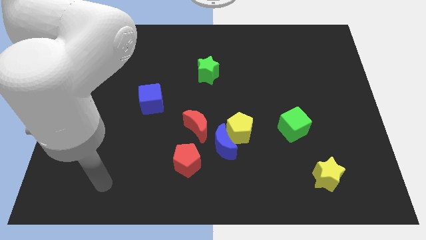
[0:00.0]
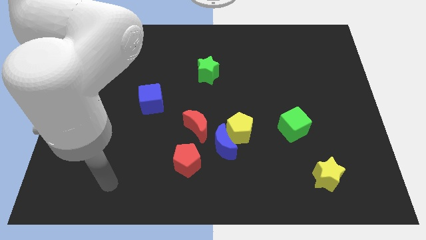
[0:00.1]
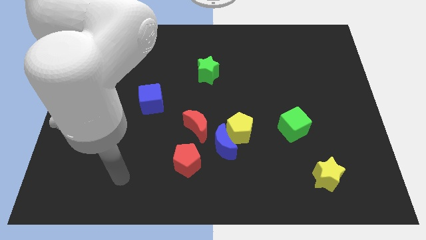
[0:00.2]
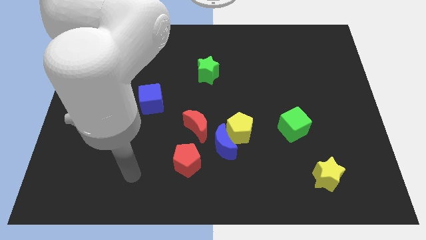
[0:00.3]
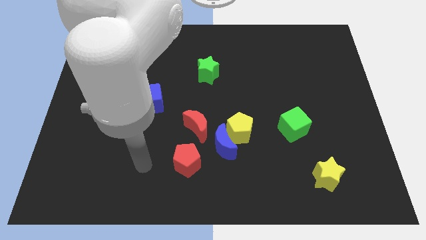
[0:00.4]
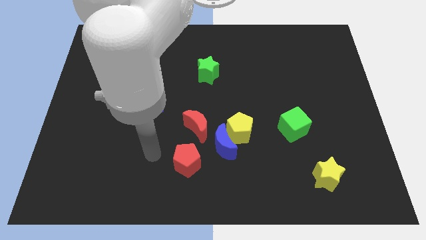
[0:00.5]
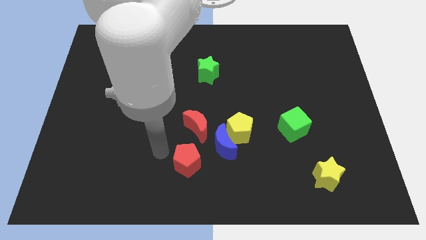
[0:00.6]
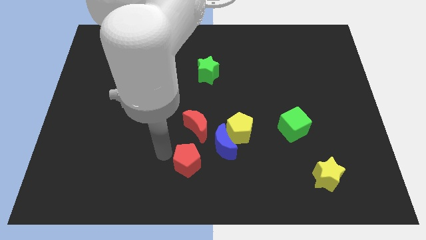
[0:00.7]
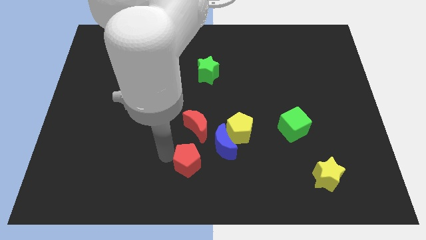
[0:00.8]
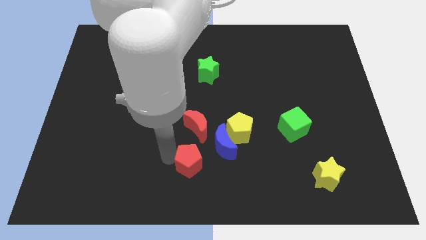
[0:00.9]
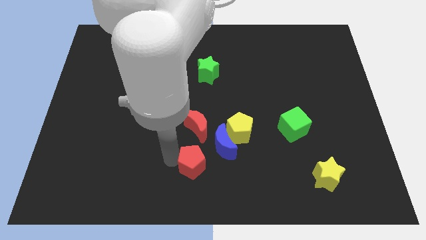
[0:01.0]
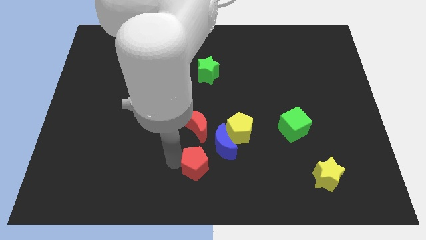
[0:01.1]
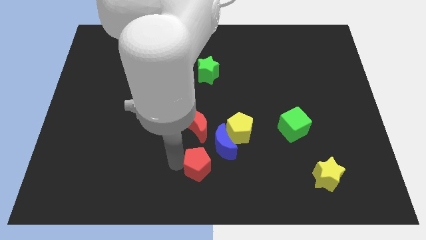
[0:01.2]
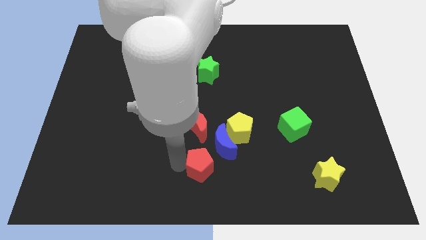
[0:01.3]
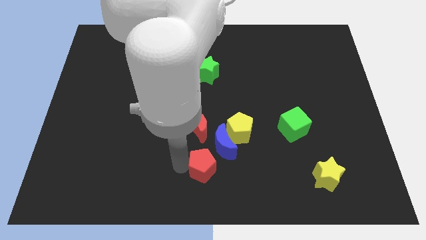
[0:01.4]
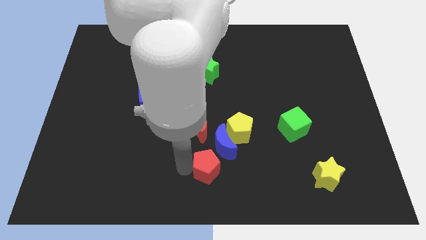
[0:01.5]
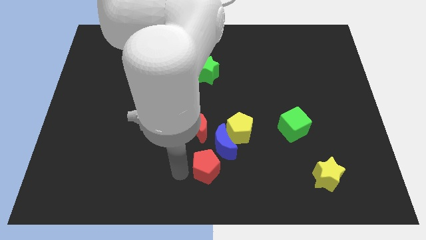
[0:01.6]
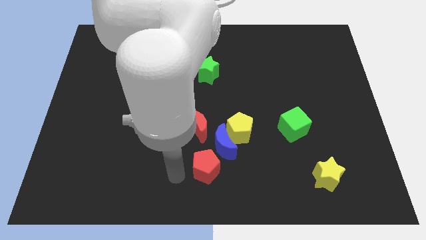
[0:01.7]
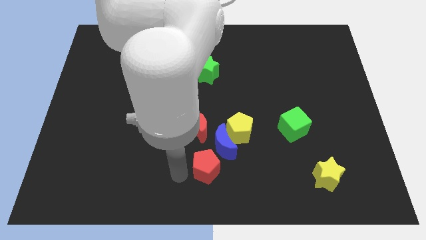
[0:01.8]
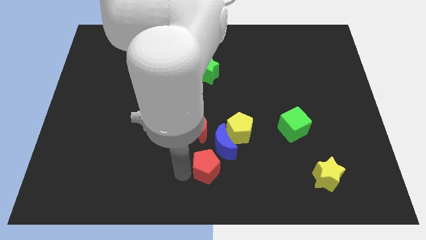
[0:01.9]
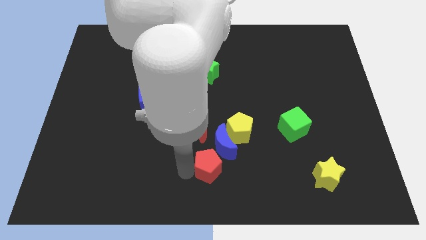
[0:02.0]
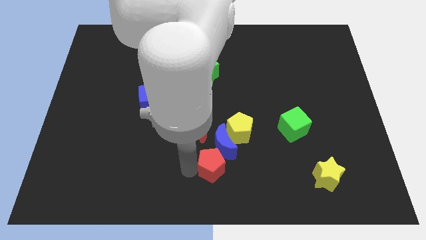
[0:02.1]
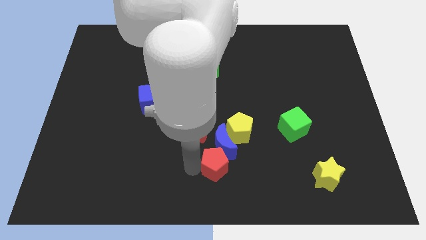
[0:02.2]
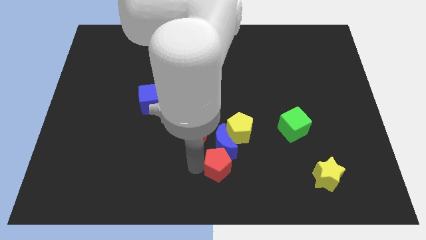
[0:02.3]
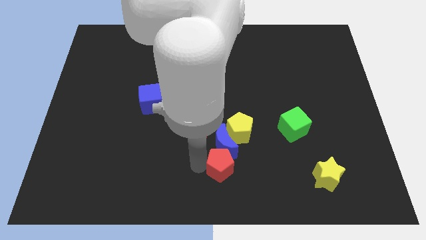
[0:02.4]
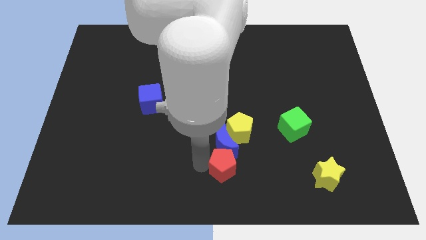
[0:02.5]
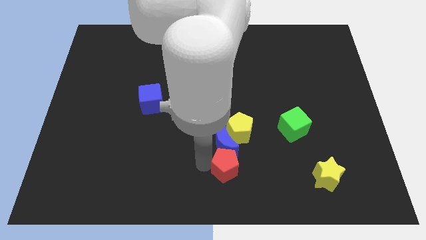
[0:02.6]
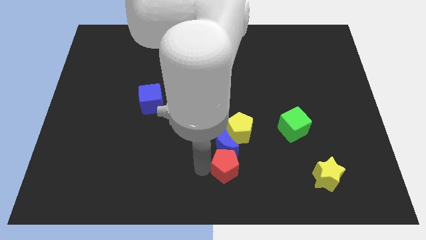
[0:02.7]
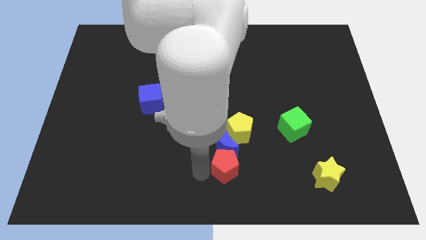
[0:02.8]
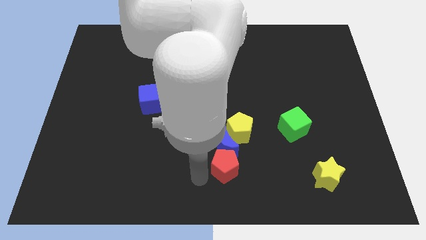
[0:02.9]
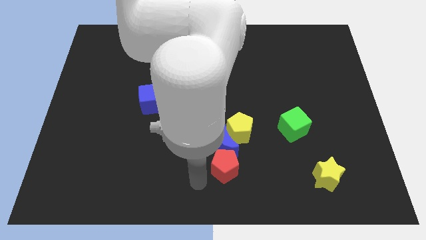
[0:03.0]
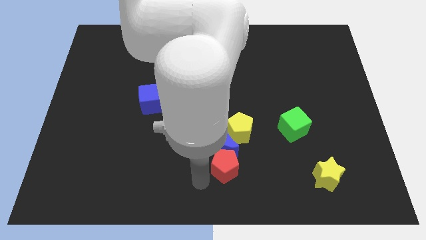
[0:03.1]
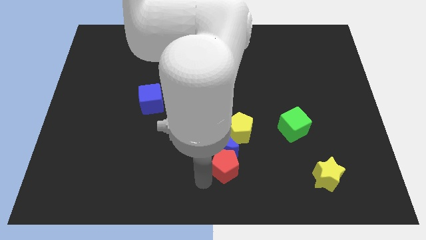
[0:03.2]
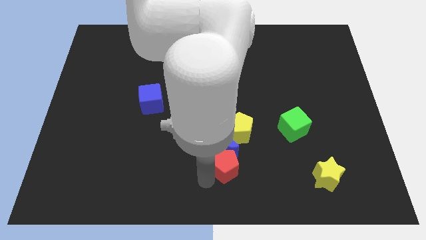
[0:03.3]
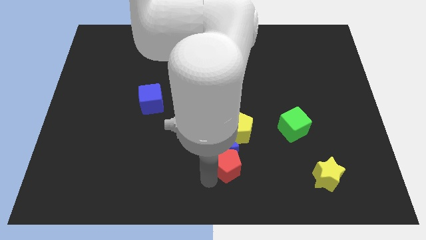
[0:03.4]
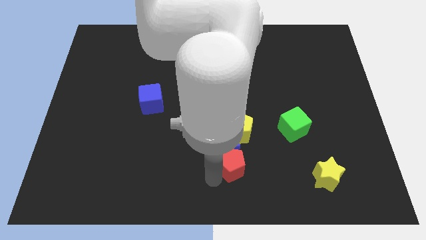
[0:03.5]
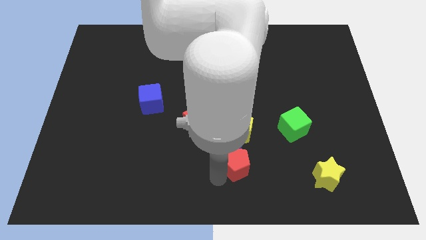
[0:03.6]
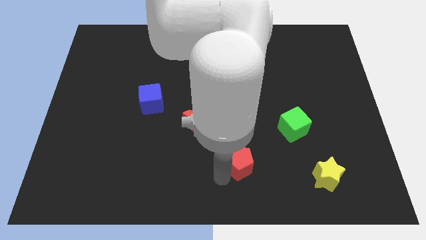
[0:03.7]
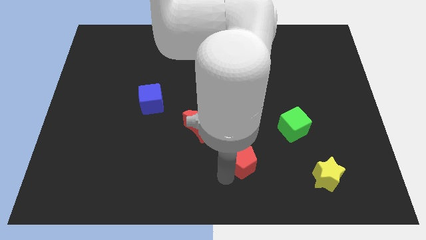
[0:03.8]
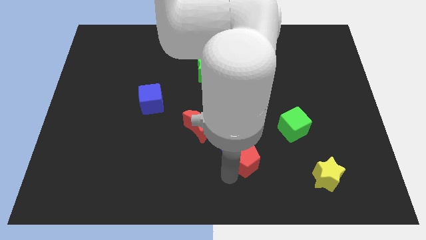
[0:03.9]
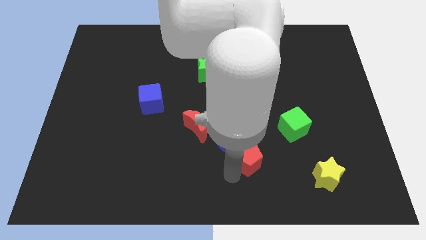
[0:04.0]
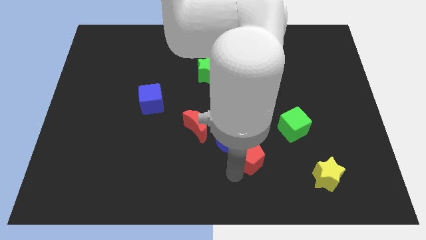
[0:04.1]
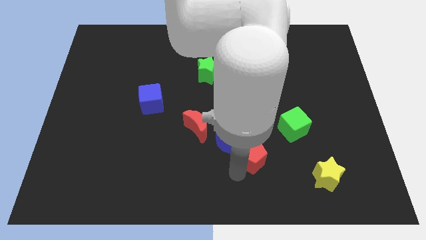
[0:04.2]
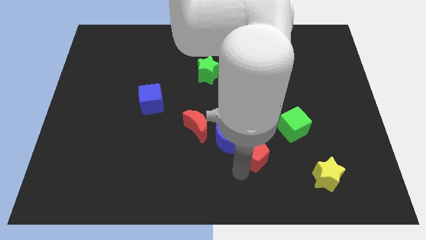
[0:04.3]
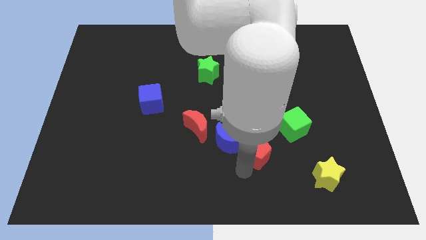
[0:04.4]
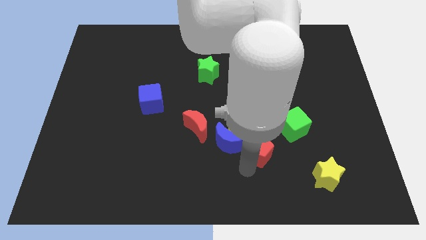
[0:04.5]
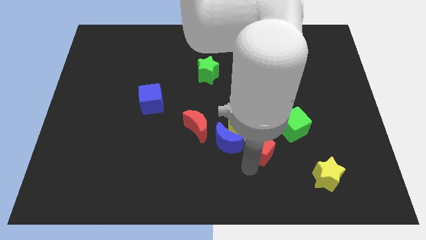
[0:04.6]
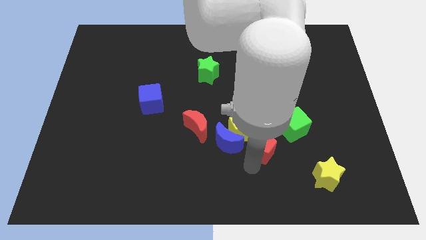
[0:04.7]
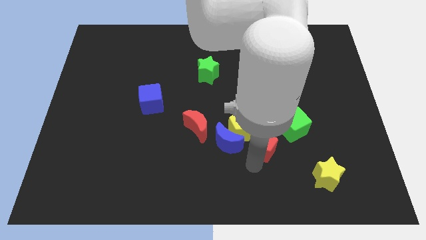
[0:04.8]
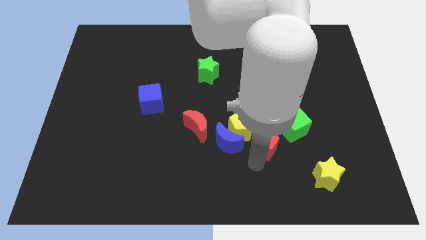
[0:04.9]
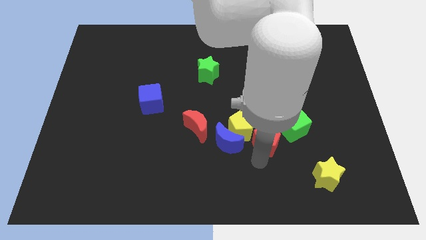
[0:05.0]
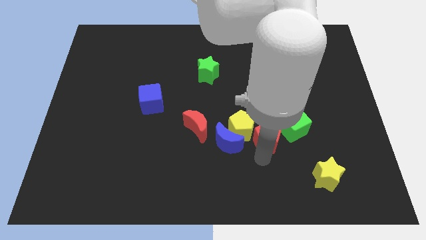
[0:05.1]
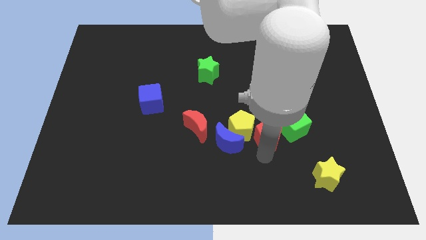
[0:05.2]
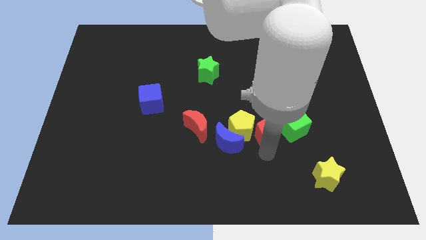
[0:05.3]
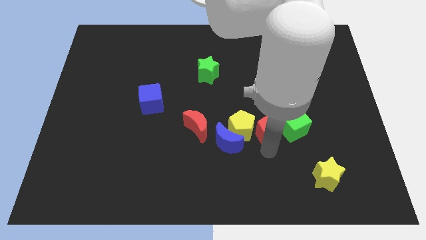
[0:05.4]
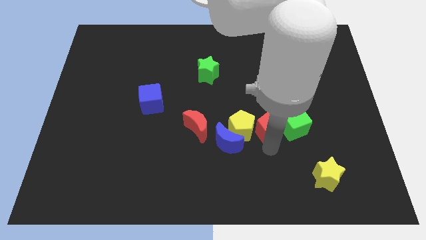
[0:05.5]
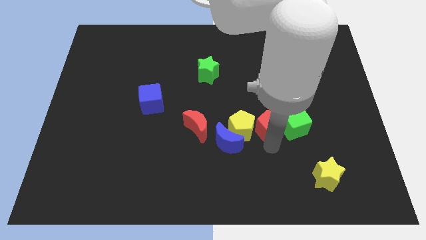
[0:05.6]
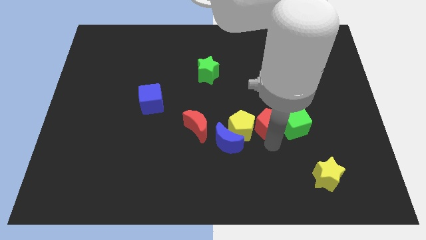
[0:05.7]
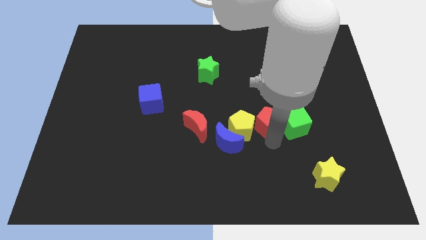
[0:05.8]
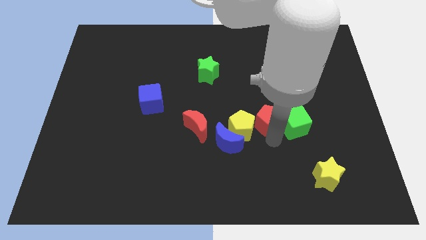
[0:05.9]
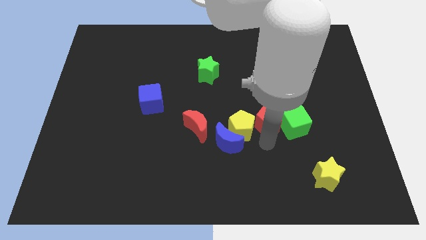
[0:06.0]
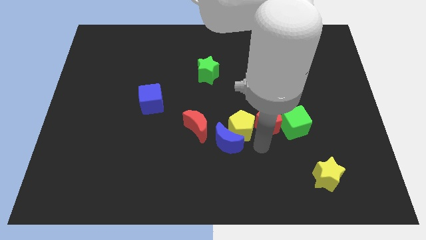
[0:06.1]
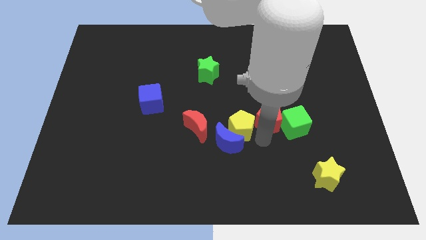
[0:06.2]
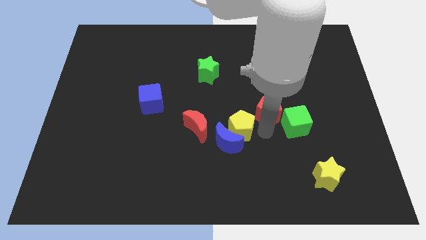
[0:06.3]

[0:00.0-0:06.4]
move the red pentagon upwards and right

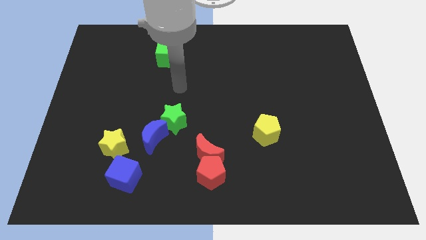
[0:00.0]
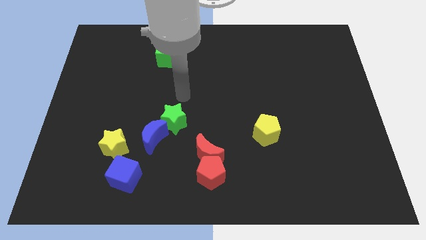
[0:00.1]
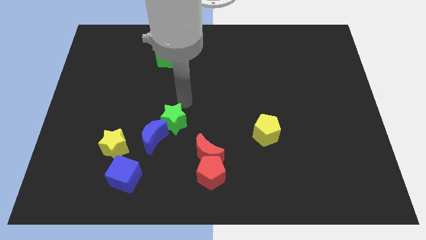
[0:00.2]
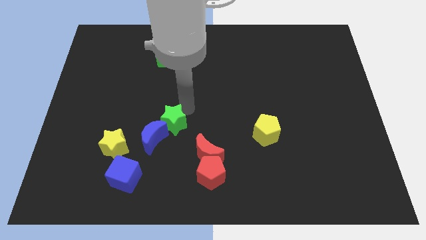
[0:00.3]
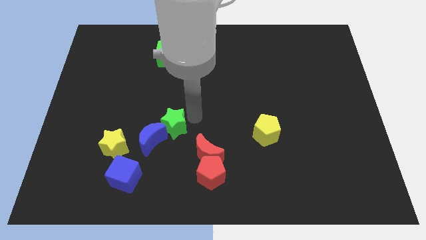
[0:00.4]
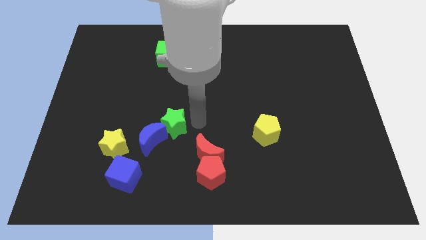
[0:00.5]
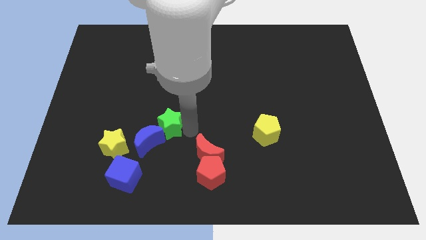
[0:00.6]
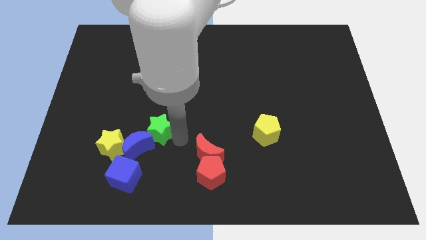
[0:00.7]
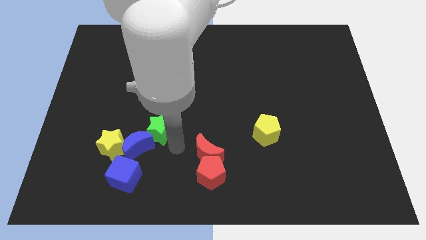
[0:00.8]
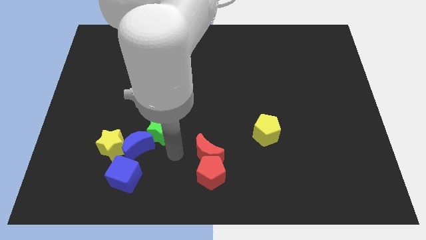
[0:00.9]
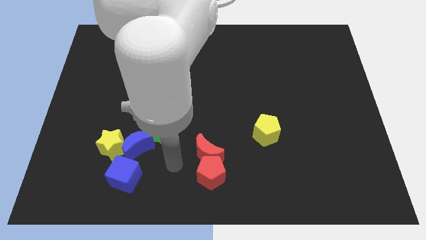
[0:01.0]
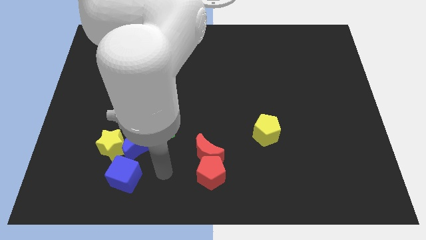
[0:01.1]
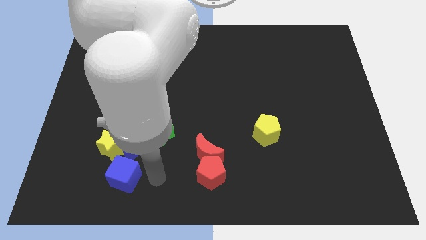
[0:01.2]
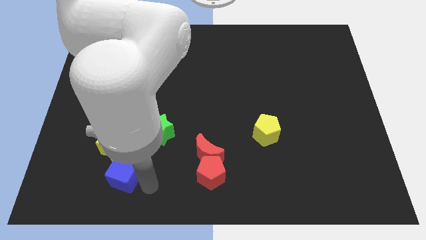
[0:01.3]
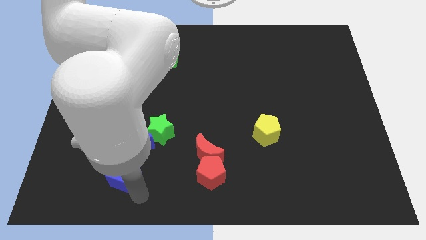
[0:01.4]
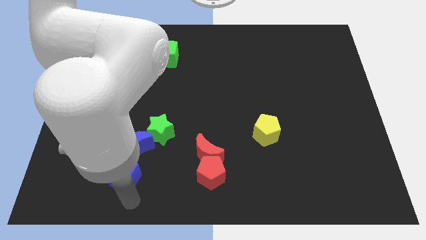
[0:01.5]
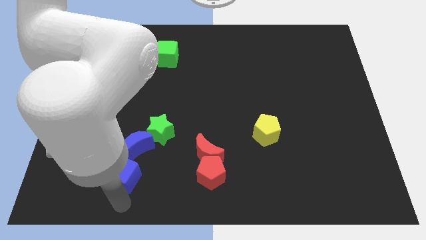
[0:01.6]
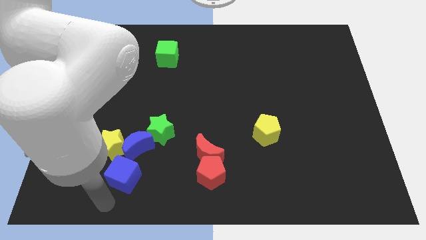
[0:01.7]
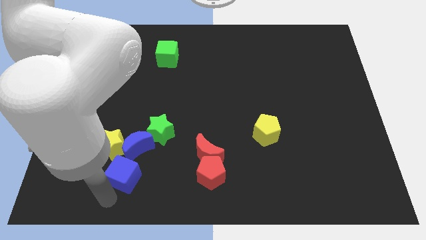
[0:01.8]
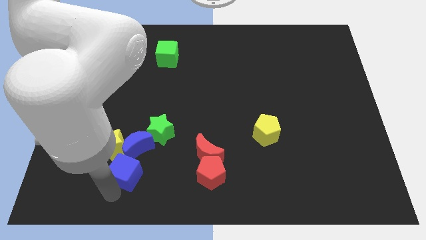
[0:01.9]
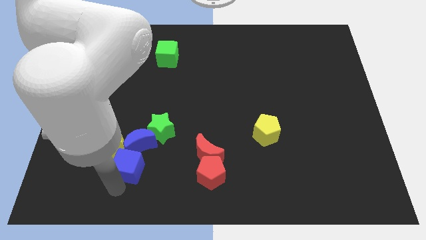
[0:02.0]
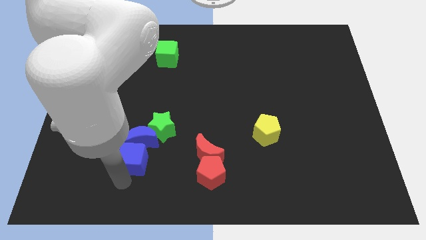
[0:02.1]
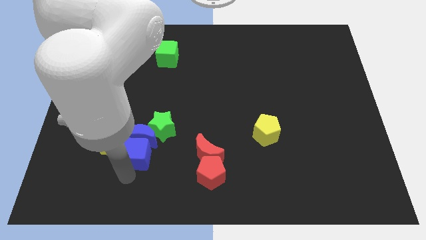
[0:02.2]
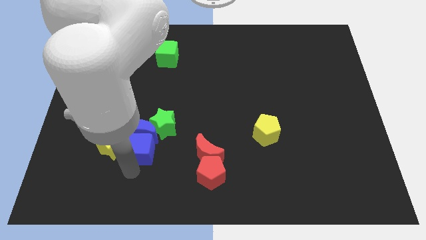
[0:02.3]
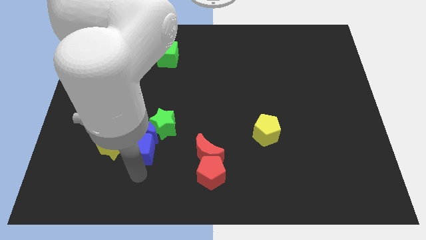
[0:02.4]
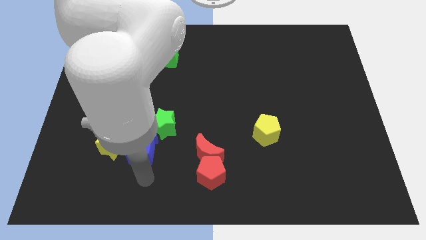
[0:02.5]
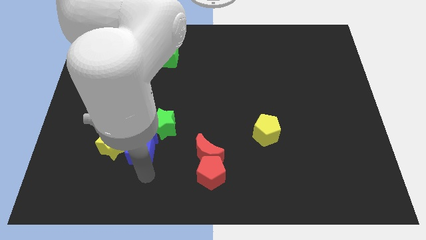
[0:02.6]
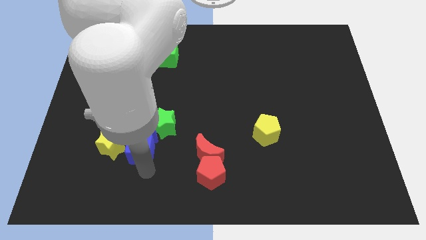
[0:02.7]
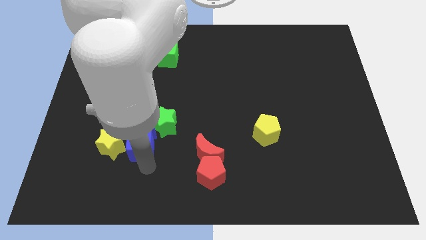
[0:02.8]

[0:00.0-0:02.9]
push the blue cube slightly upwards
